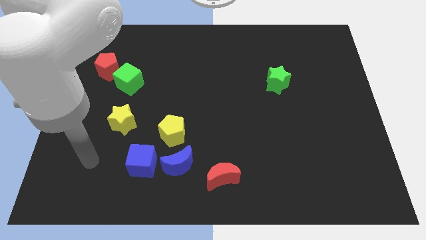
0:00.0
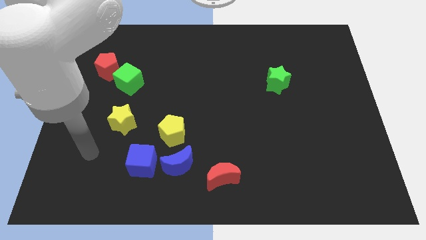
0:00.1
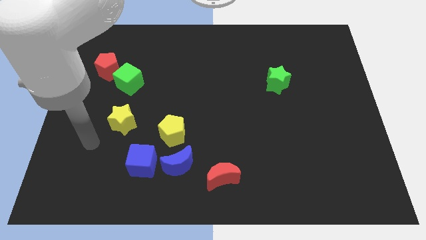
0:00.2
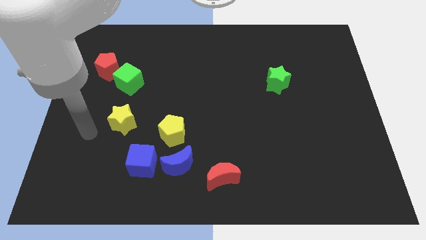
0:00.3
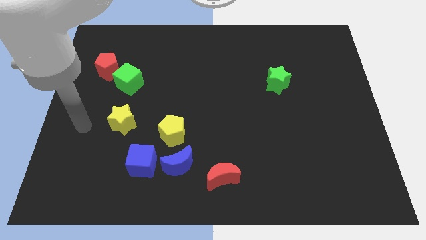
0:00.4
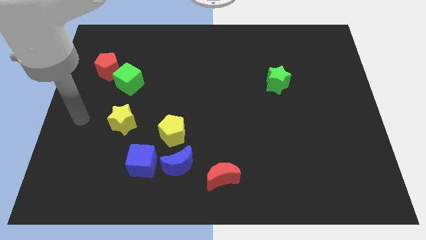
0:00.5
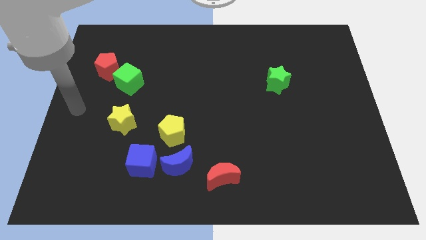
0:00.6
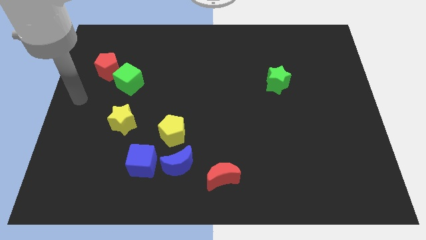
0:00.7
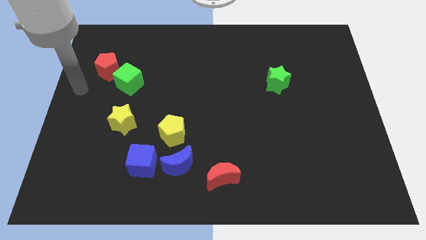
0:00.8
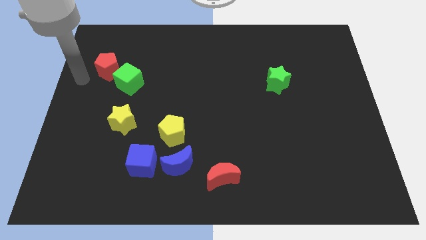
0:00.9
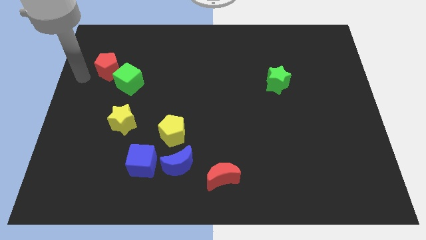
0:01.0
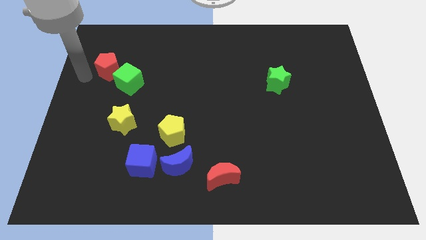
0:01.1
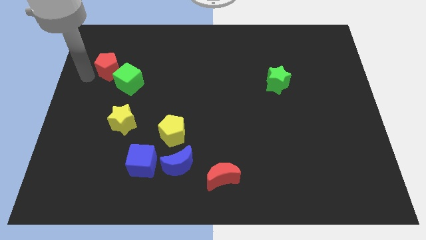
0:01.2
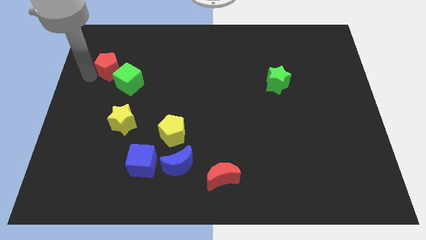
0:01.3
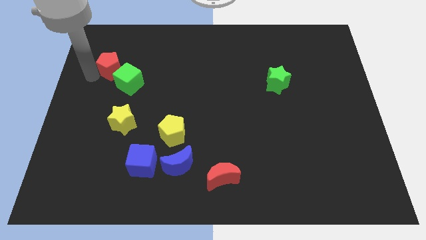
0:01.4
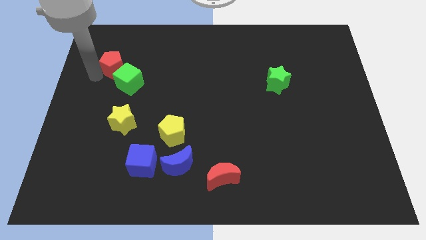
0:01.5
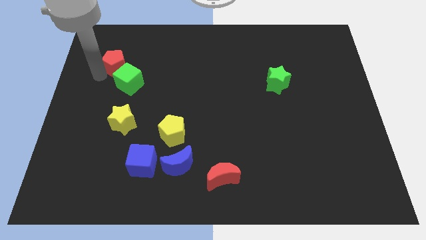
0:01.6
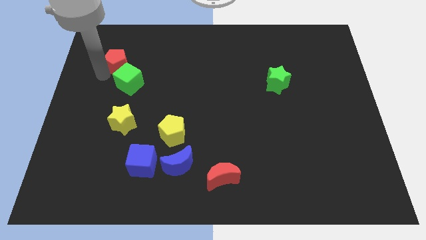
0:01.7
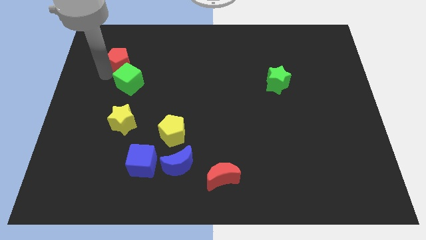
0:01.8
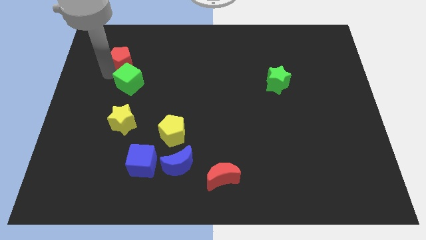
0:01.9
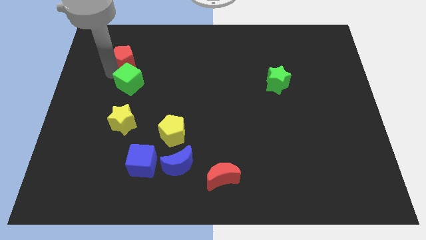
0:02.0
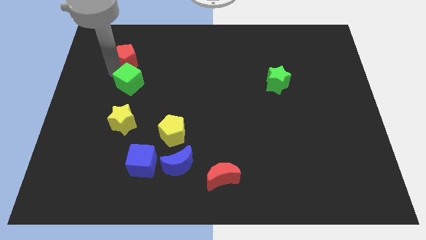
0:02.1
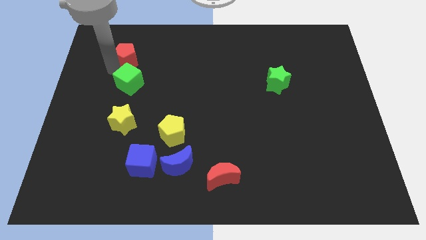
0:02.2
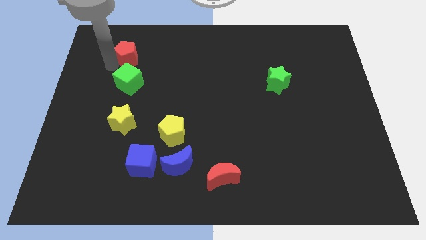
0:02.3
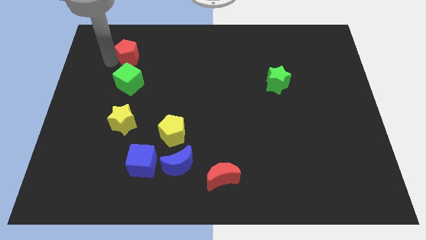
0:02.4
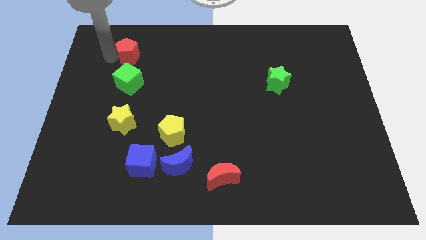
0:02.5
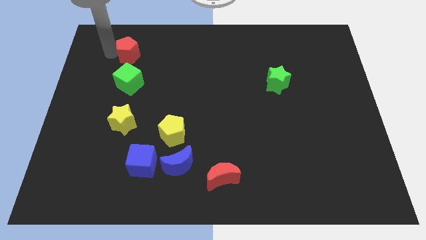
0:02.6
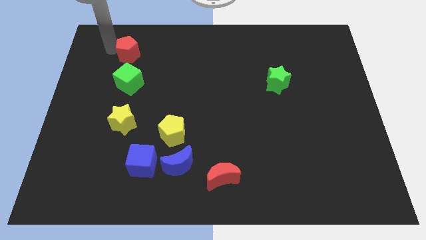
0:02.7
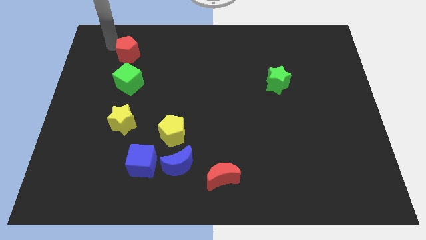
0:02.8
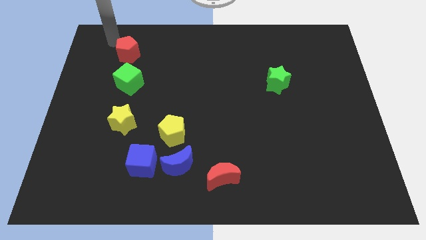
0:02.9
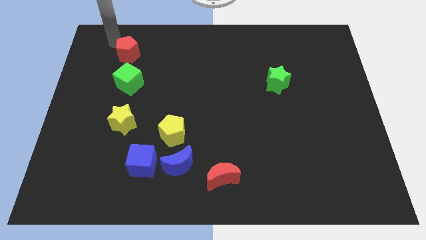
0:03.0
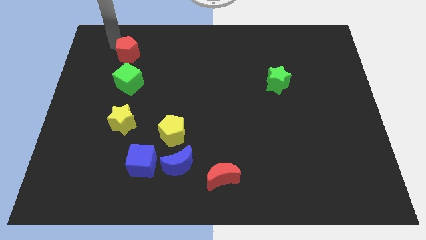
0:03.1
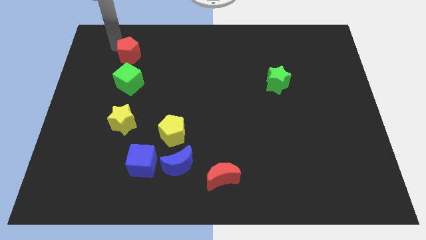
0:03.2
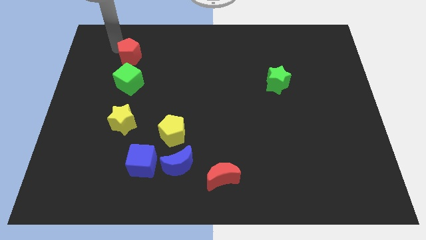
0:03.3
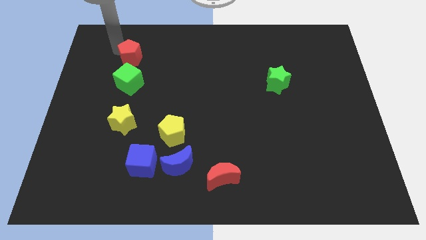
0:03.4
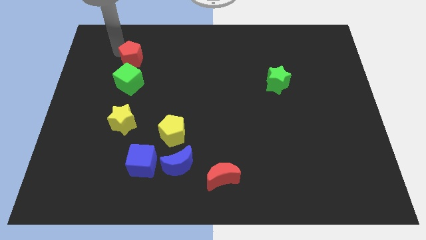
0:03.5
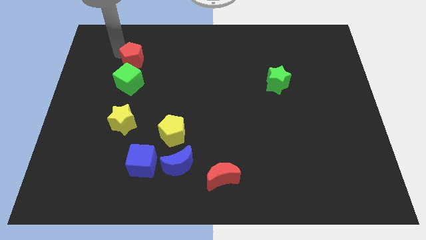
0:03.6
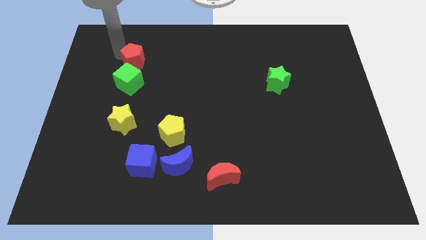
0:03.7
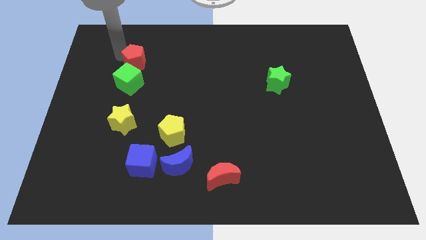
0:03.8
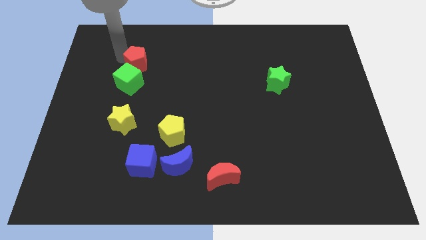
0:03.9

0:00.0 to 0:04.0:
slide the red pentagon right somewhat

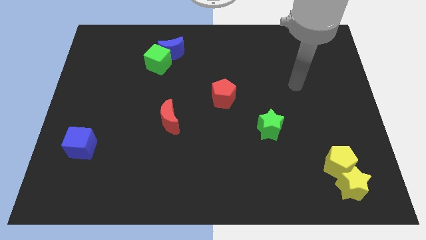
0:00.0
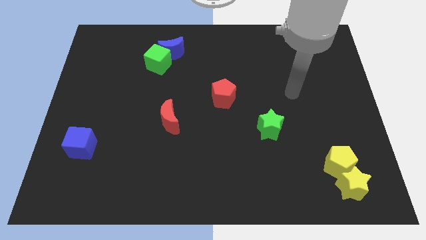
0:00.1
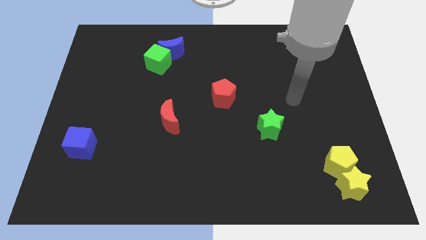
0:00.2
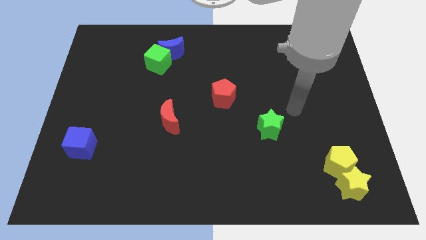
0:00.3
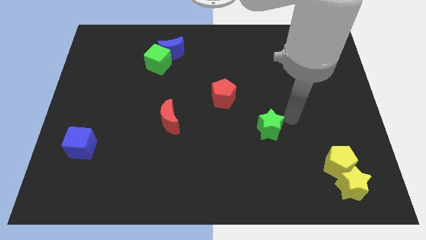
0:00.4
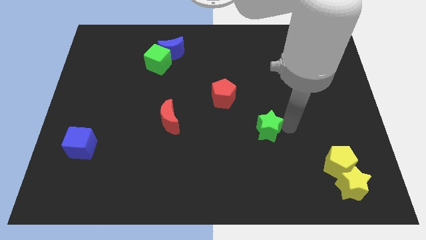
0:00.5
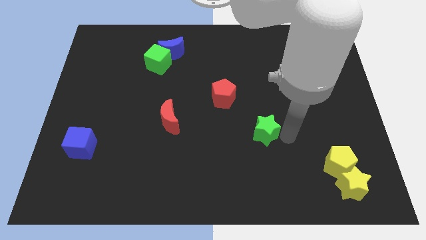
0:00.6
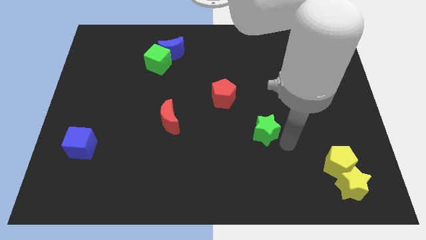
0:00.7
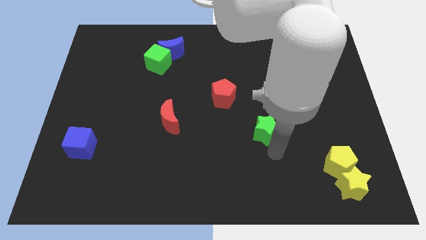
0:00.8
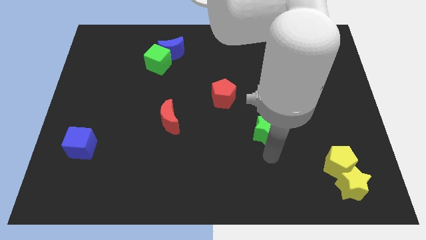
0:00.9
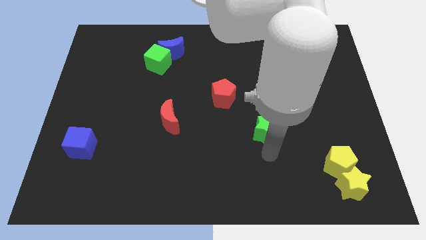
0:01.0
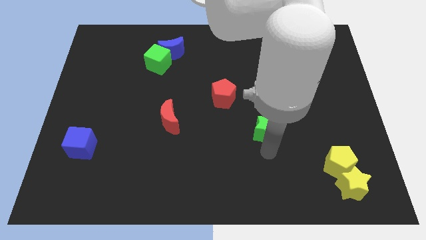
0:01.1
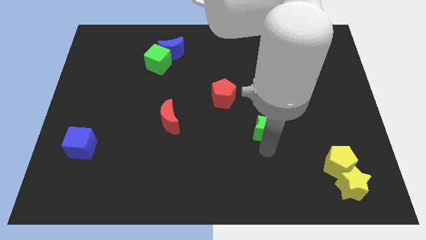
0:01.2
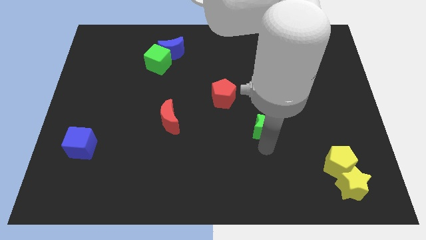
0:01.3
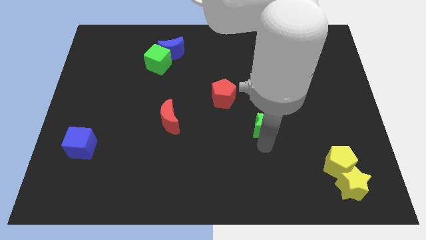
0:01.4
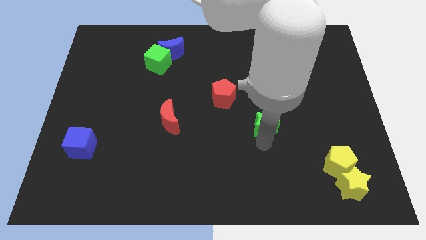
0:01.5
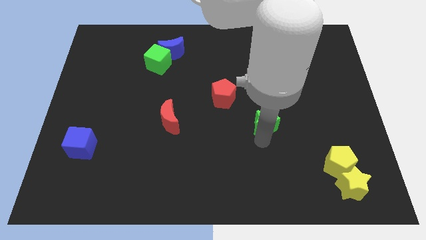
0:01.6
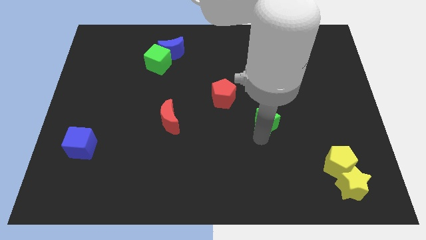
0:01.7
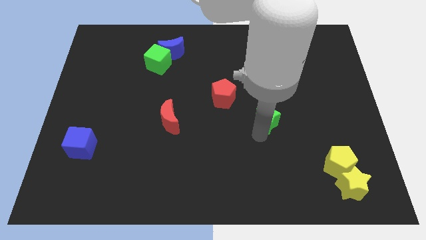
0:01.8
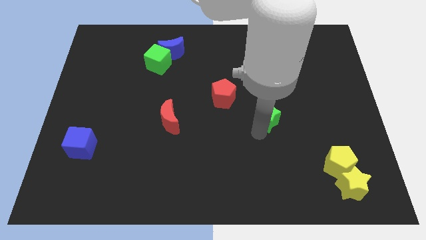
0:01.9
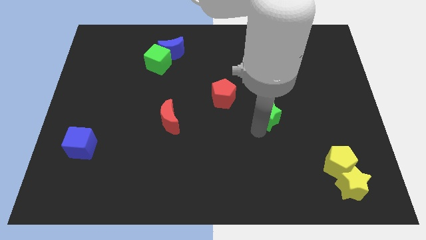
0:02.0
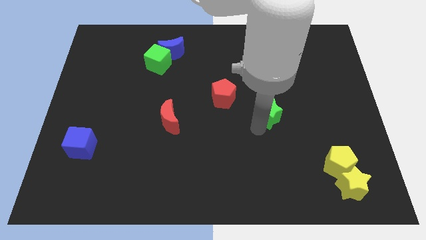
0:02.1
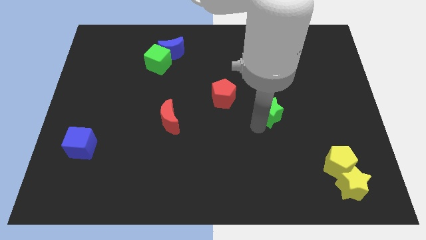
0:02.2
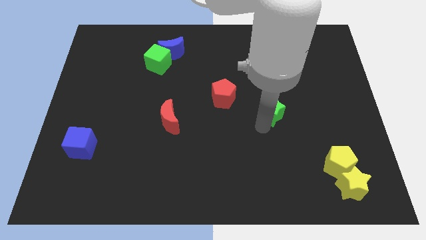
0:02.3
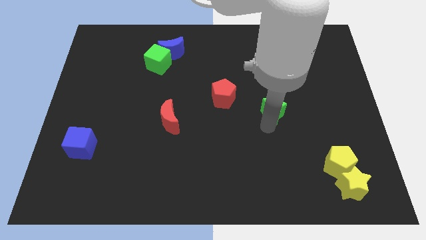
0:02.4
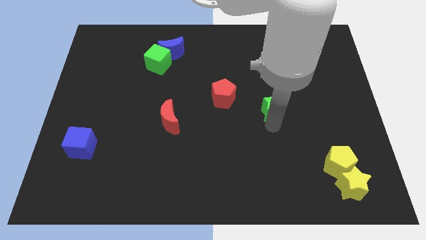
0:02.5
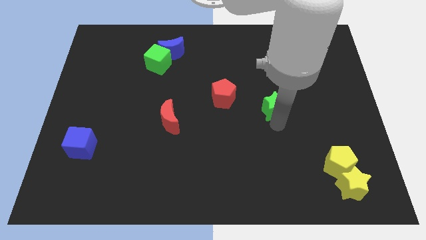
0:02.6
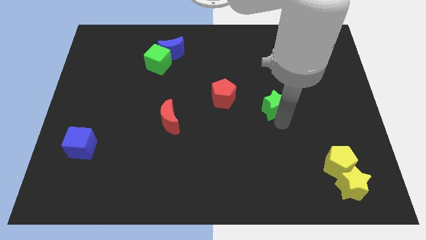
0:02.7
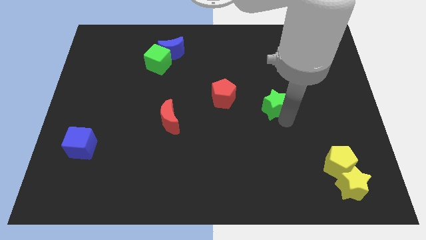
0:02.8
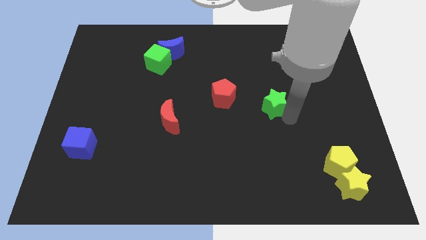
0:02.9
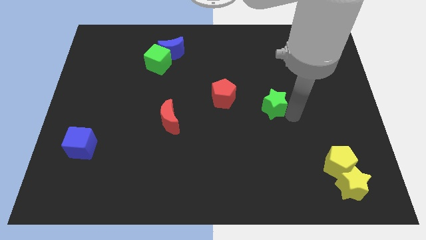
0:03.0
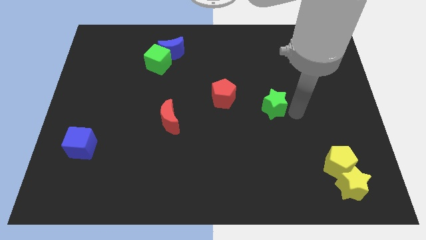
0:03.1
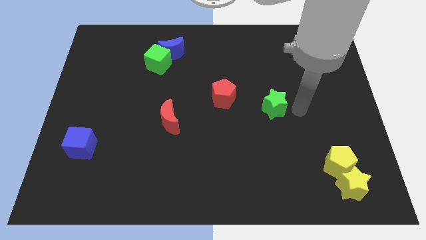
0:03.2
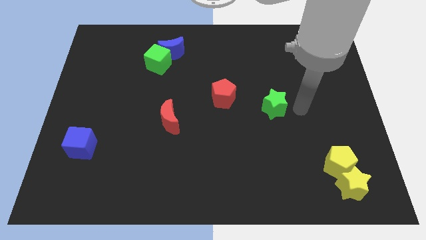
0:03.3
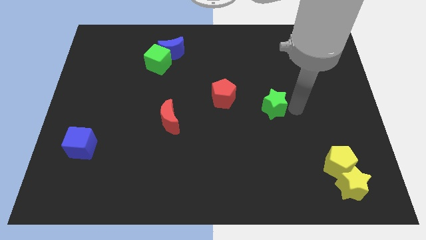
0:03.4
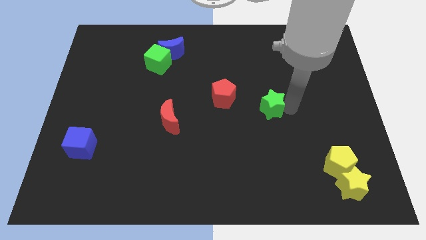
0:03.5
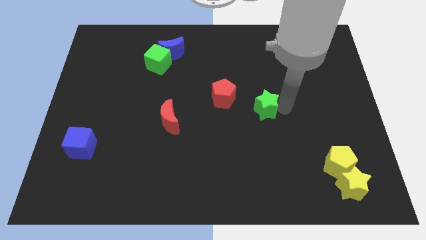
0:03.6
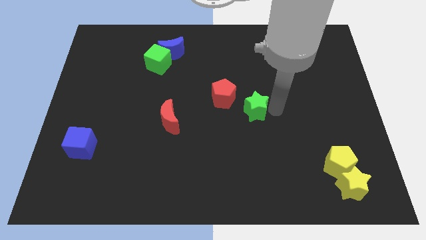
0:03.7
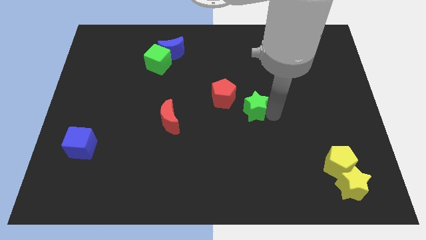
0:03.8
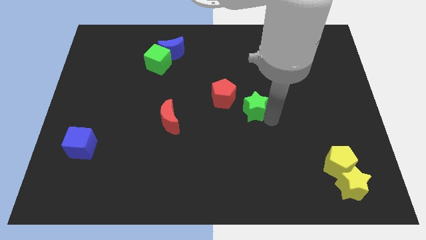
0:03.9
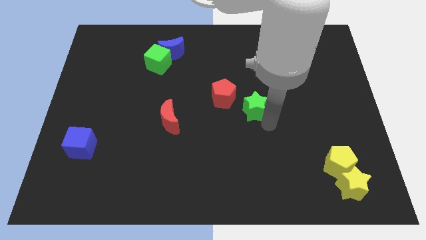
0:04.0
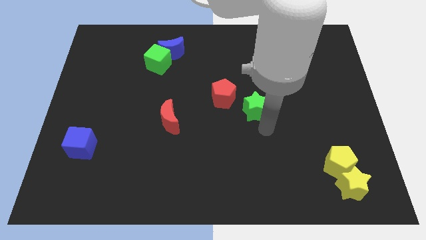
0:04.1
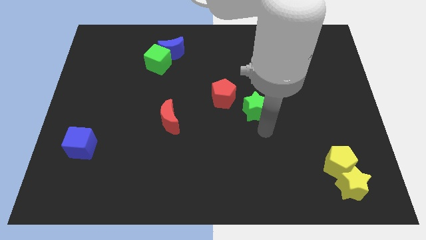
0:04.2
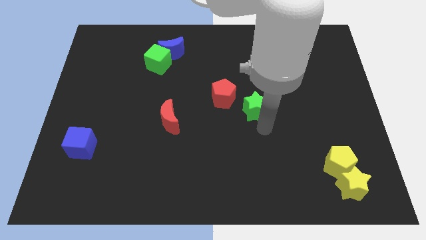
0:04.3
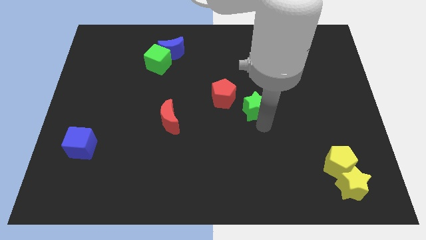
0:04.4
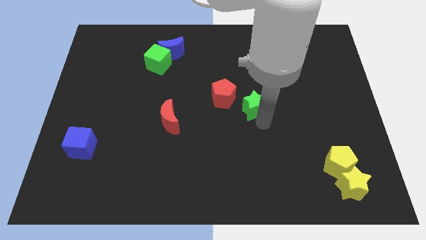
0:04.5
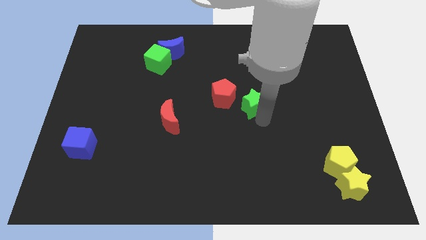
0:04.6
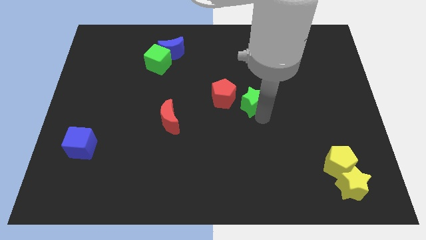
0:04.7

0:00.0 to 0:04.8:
slightly move the green star upwards and to the left
